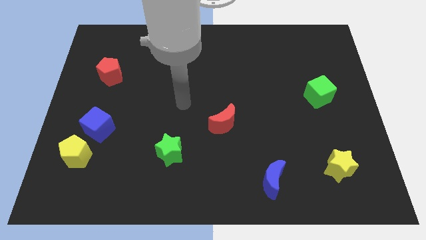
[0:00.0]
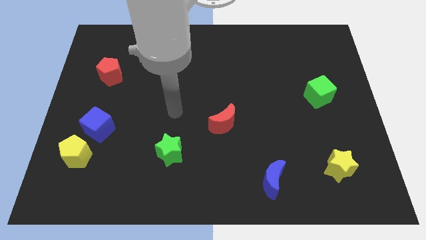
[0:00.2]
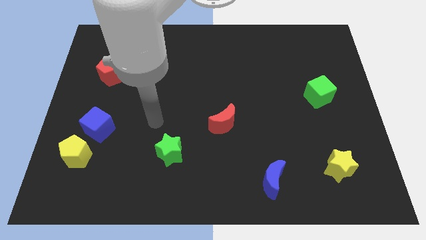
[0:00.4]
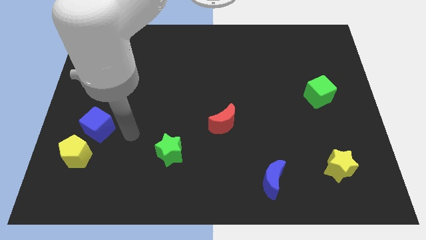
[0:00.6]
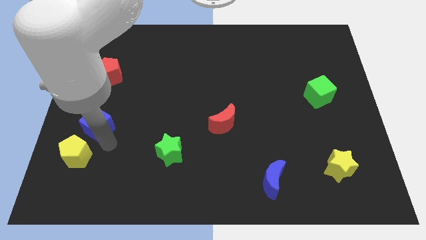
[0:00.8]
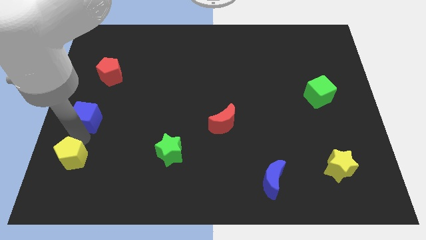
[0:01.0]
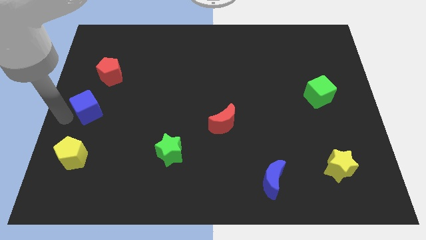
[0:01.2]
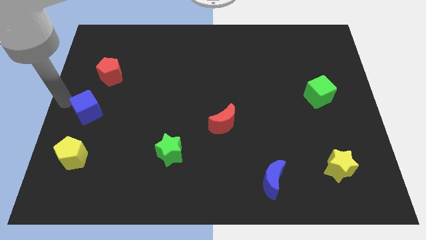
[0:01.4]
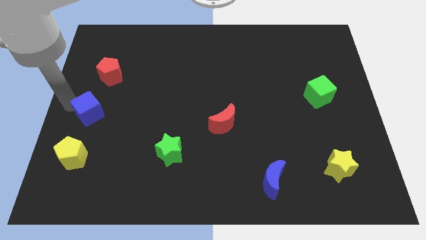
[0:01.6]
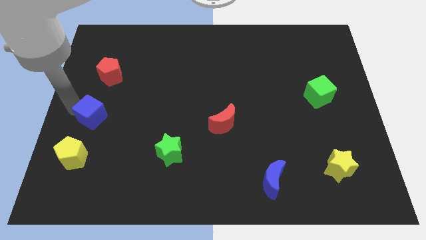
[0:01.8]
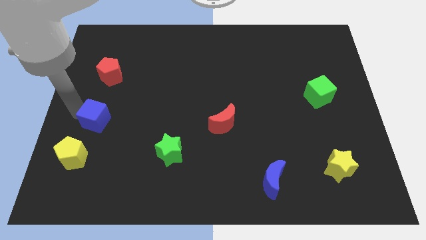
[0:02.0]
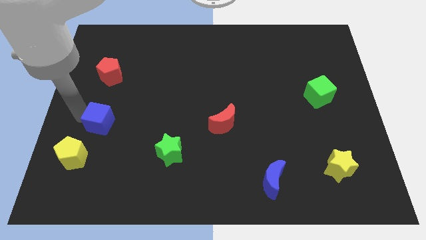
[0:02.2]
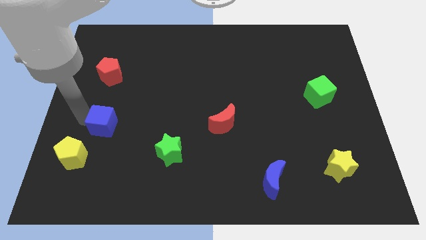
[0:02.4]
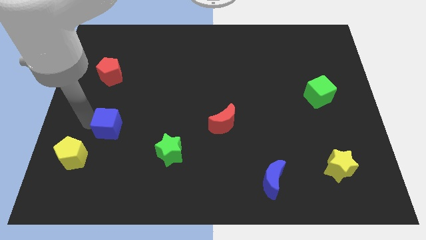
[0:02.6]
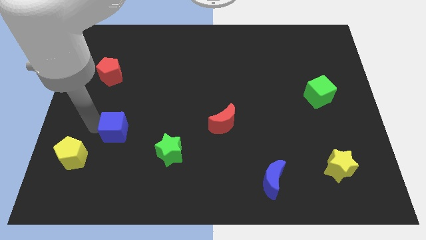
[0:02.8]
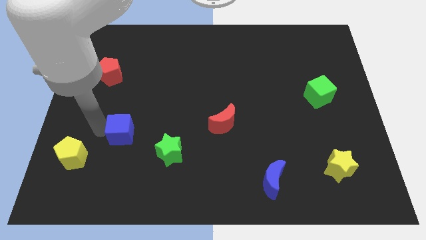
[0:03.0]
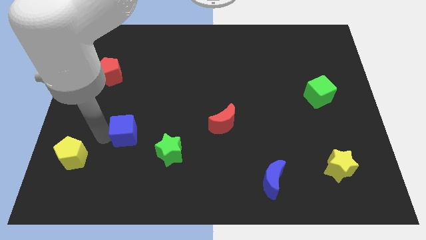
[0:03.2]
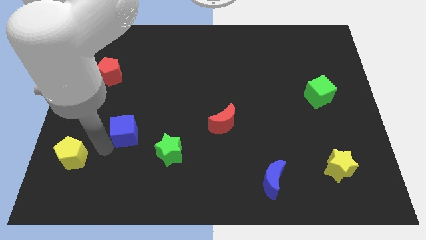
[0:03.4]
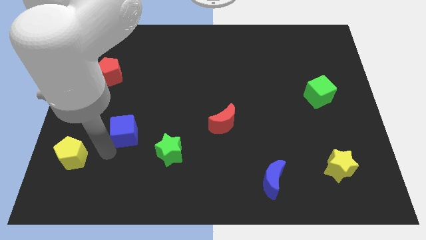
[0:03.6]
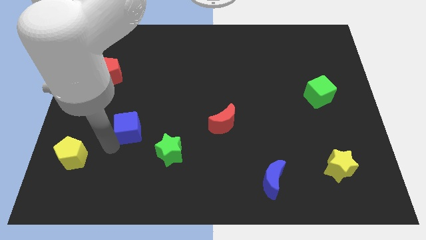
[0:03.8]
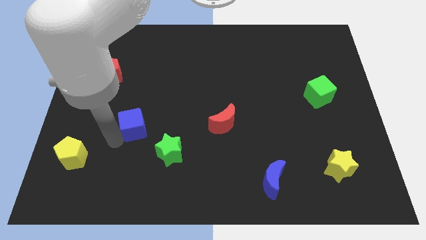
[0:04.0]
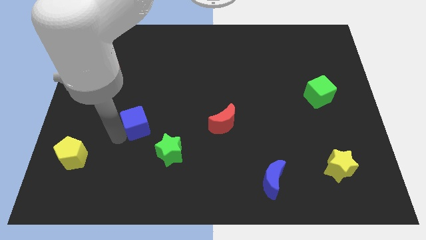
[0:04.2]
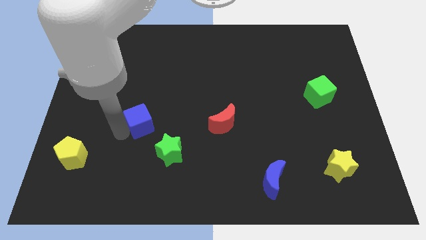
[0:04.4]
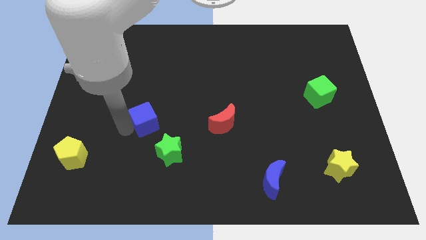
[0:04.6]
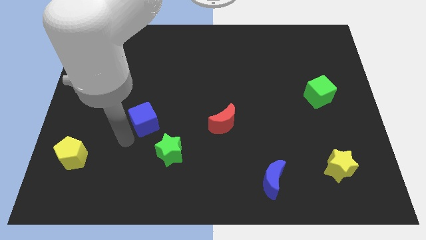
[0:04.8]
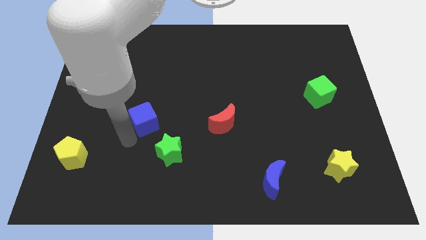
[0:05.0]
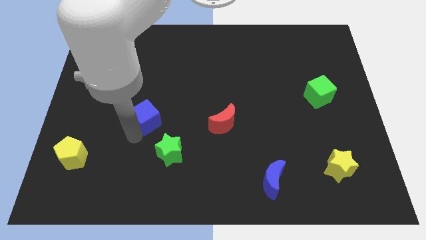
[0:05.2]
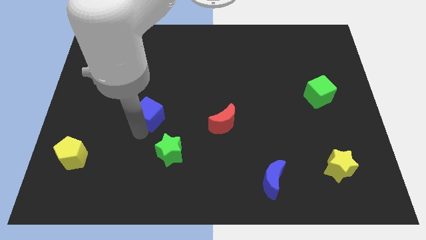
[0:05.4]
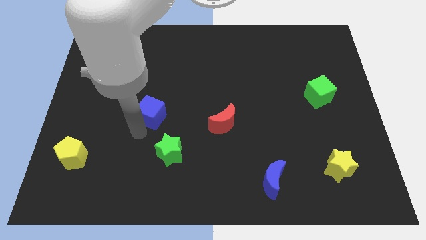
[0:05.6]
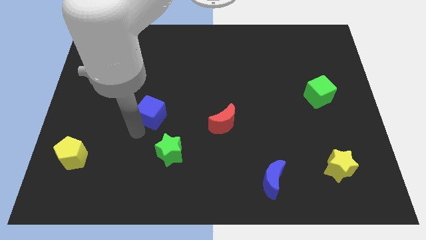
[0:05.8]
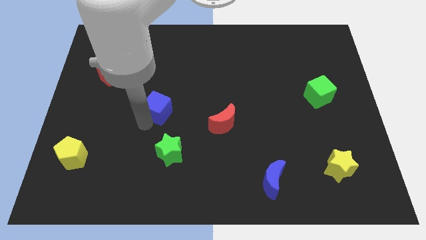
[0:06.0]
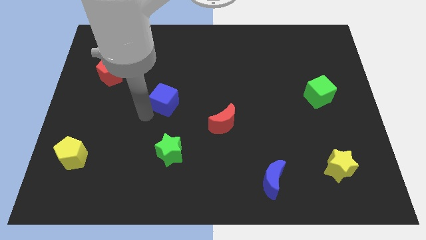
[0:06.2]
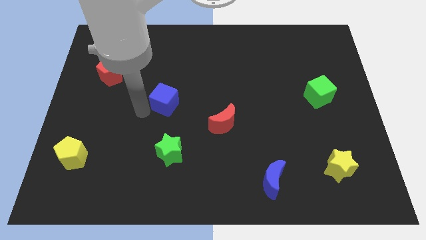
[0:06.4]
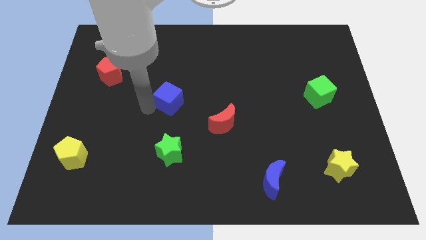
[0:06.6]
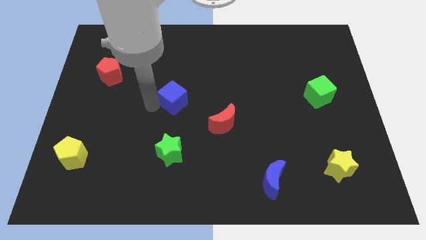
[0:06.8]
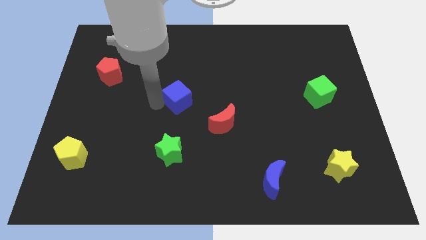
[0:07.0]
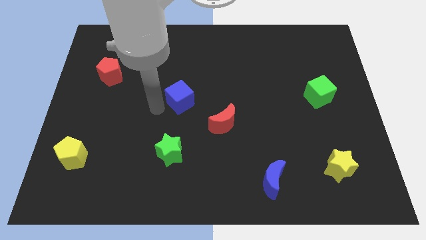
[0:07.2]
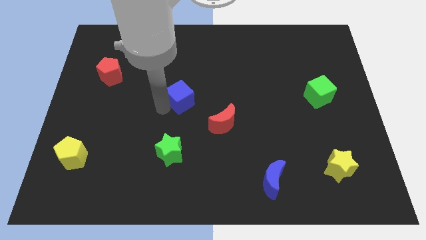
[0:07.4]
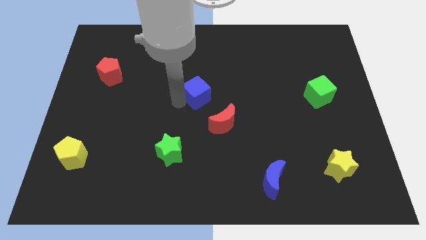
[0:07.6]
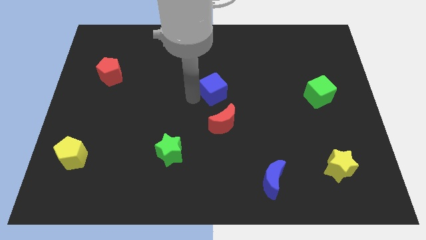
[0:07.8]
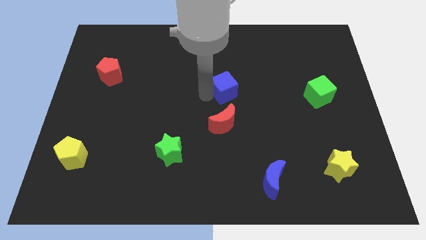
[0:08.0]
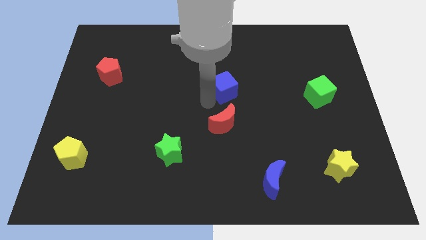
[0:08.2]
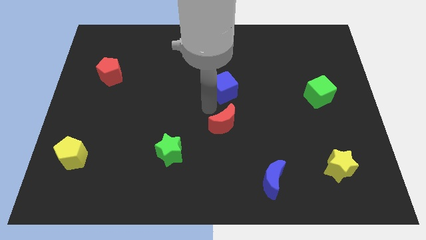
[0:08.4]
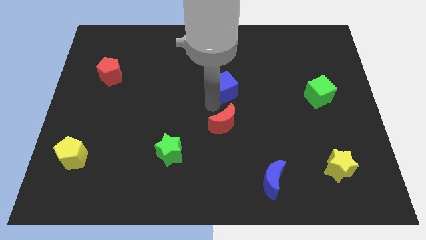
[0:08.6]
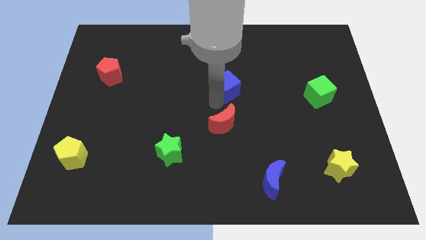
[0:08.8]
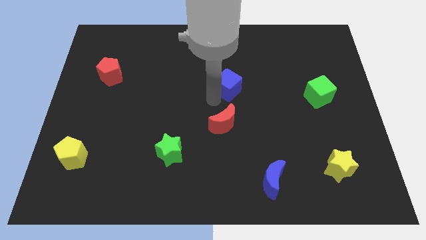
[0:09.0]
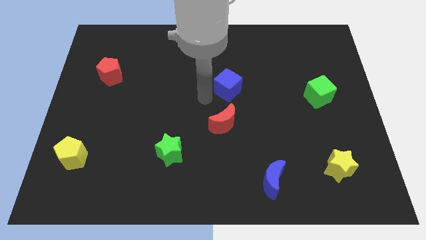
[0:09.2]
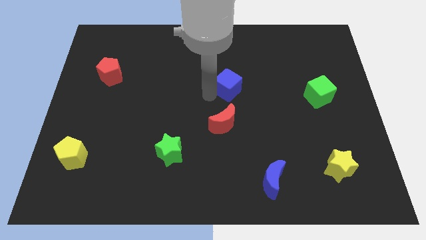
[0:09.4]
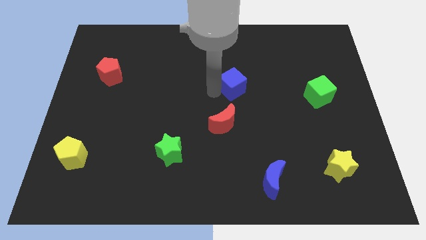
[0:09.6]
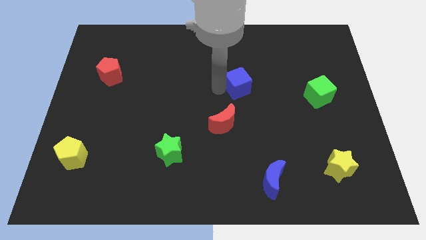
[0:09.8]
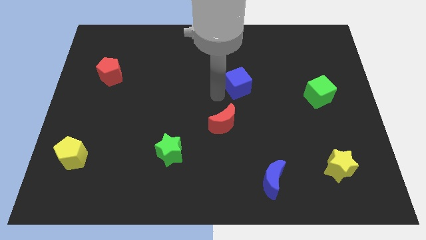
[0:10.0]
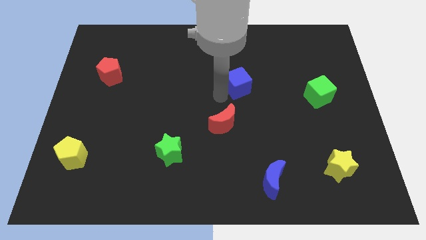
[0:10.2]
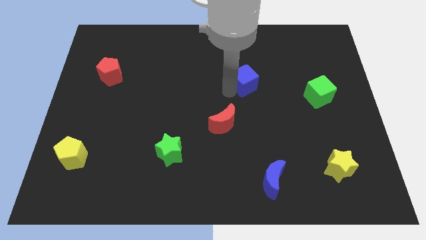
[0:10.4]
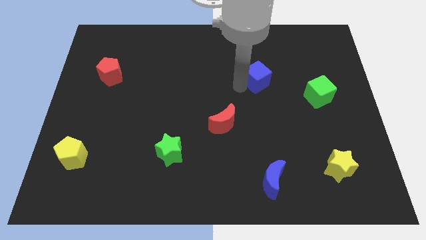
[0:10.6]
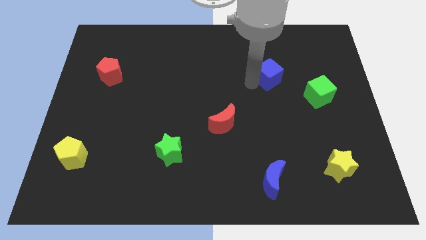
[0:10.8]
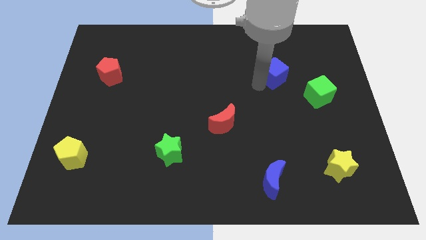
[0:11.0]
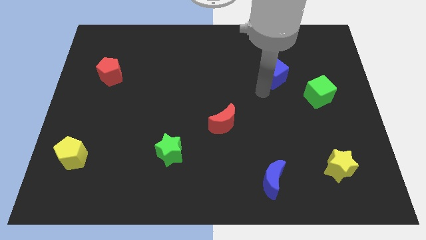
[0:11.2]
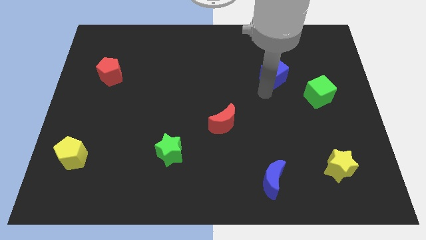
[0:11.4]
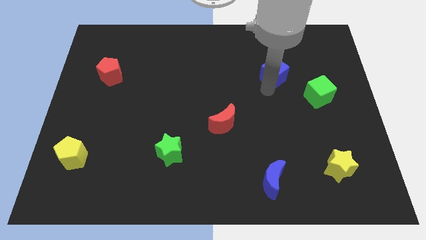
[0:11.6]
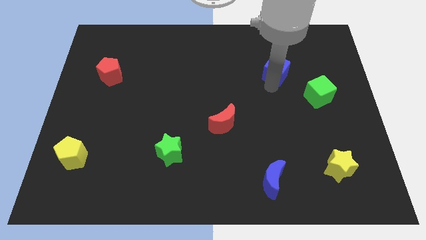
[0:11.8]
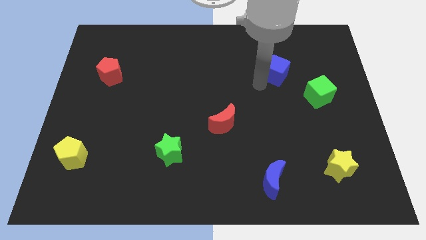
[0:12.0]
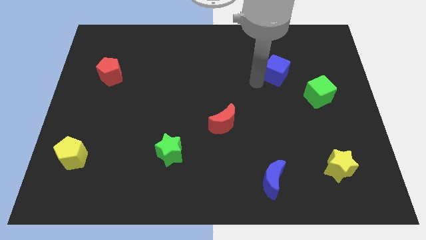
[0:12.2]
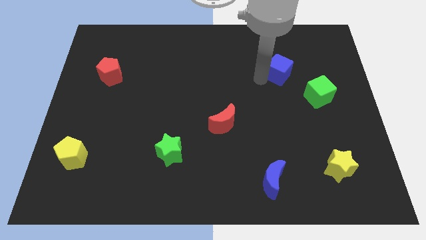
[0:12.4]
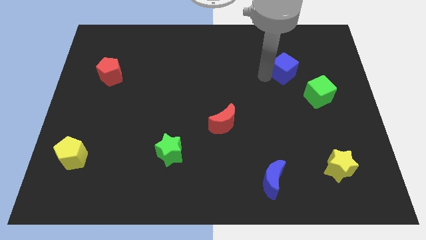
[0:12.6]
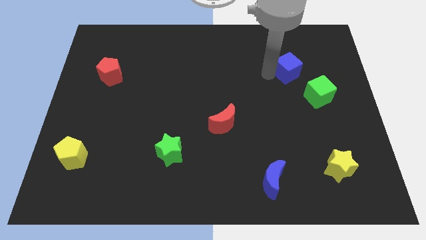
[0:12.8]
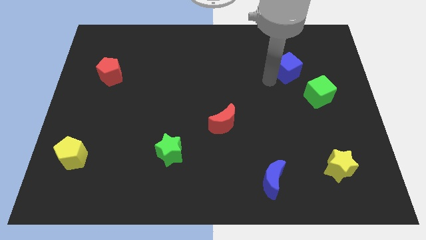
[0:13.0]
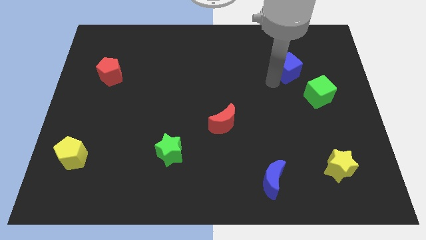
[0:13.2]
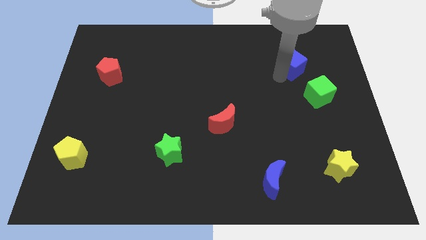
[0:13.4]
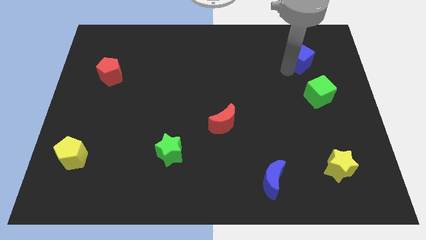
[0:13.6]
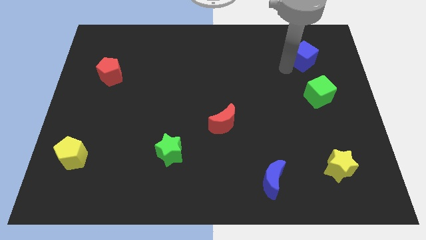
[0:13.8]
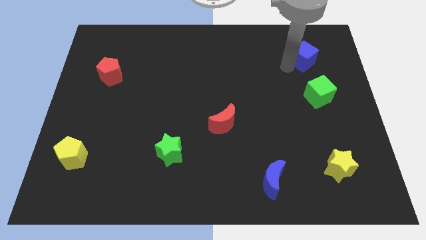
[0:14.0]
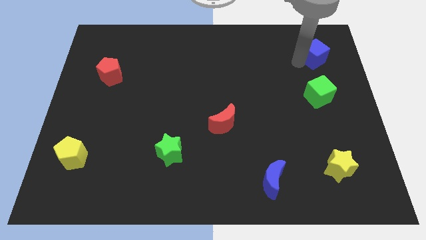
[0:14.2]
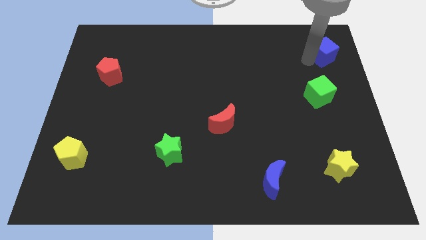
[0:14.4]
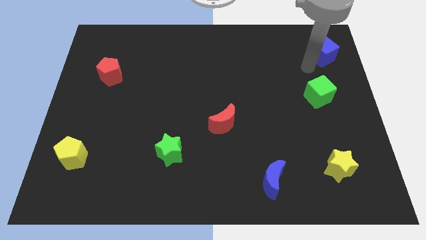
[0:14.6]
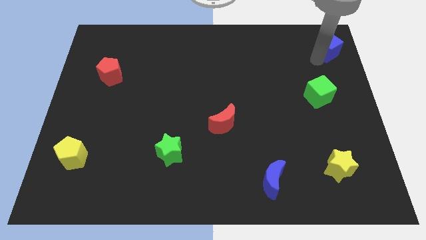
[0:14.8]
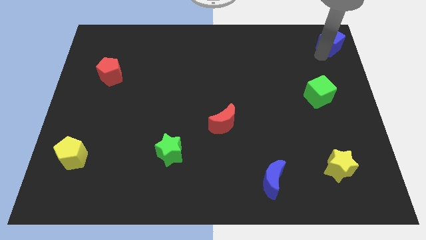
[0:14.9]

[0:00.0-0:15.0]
move the blue cube to the top right
